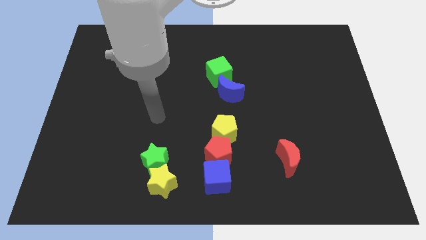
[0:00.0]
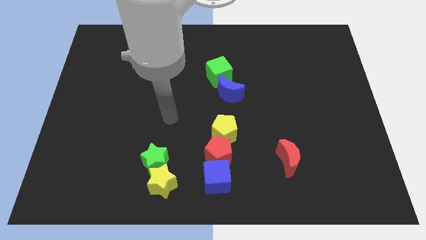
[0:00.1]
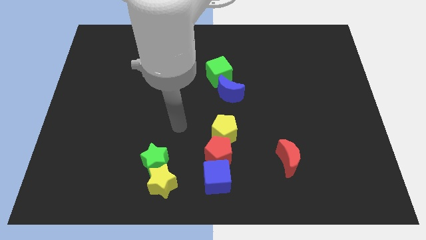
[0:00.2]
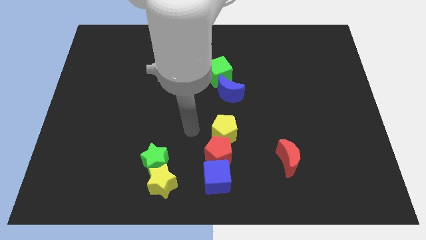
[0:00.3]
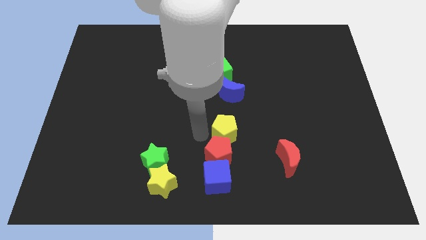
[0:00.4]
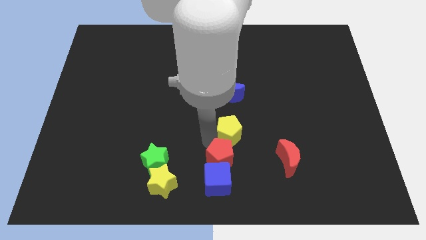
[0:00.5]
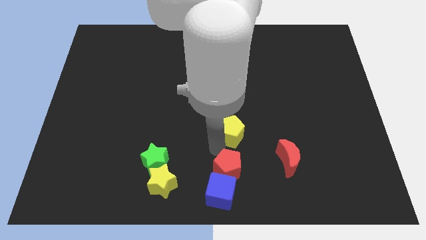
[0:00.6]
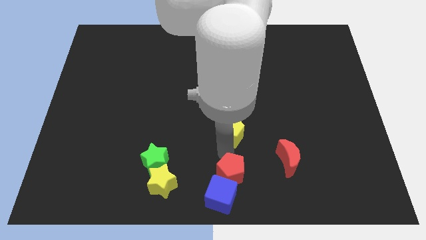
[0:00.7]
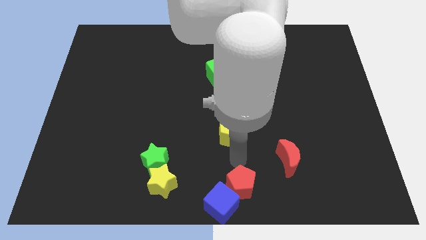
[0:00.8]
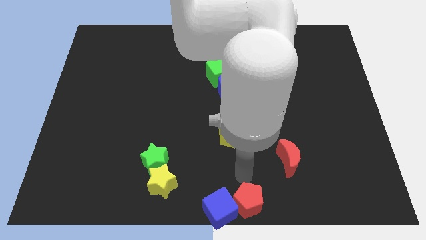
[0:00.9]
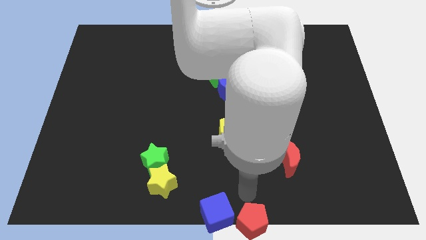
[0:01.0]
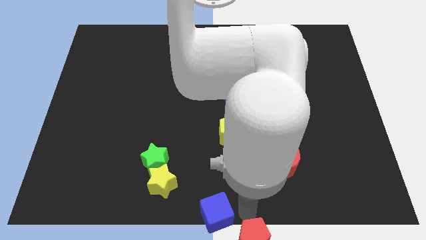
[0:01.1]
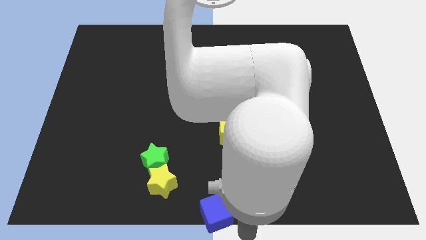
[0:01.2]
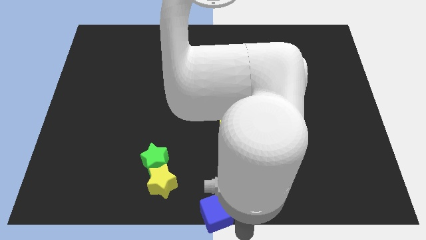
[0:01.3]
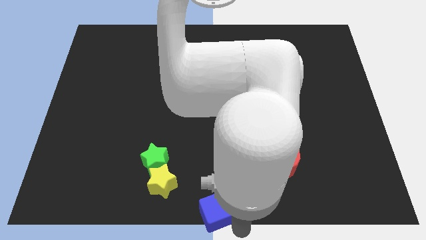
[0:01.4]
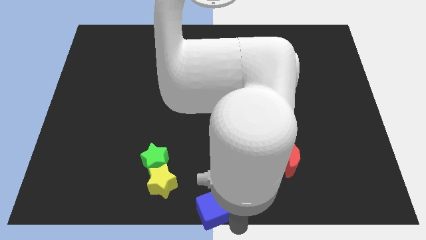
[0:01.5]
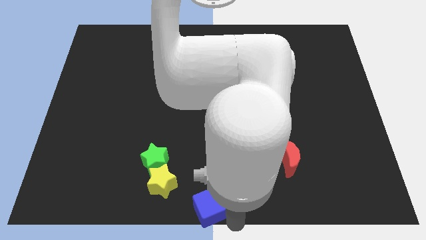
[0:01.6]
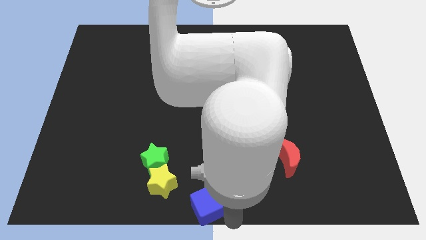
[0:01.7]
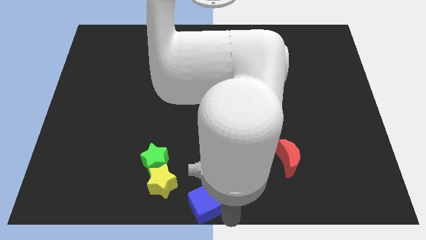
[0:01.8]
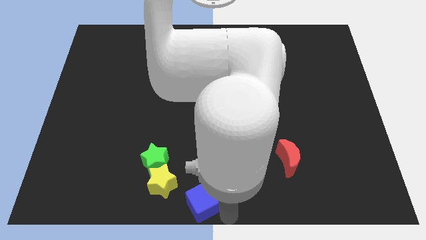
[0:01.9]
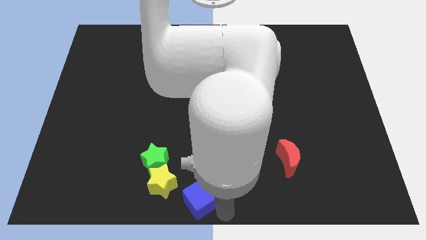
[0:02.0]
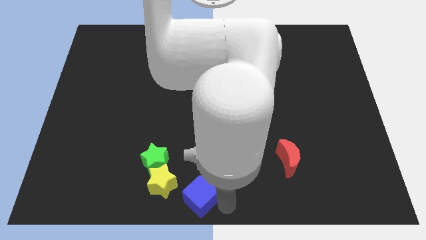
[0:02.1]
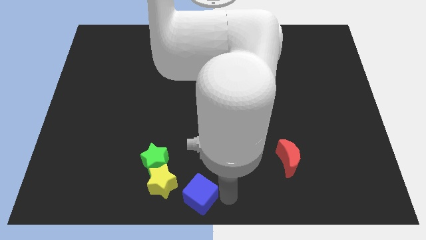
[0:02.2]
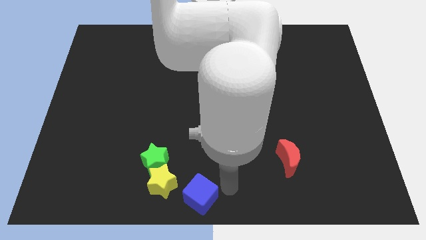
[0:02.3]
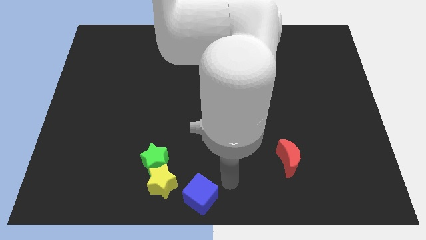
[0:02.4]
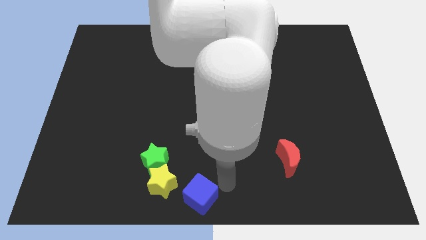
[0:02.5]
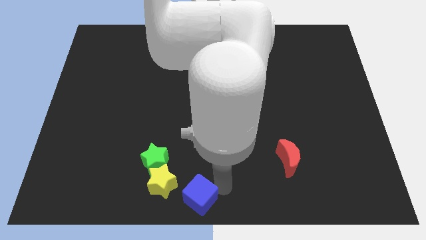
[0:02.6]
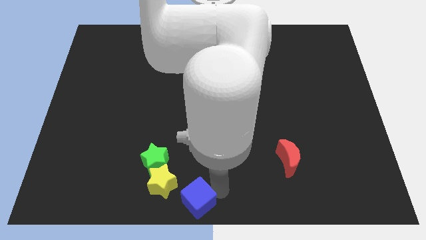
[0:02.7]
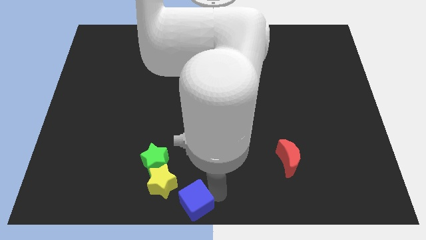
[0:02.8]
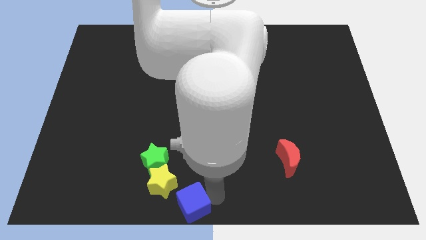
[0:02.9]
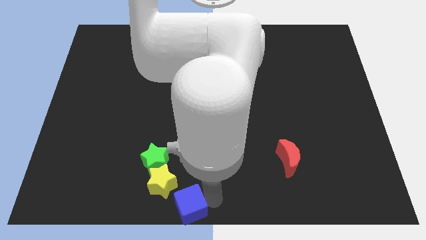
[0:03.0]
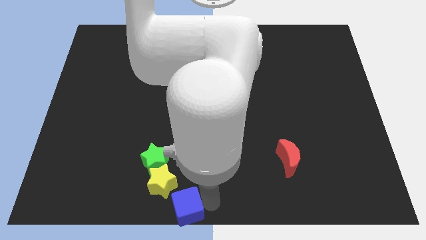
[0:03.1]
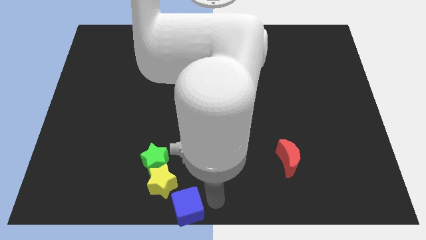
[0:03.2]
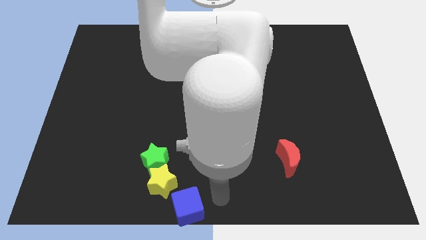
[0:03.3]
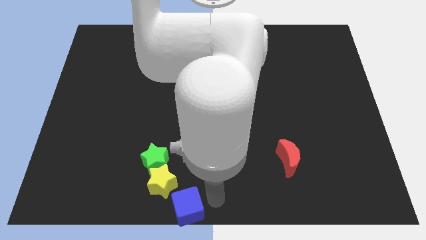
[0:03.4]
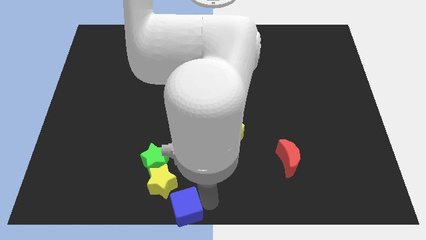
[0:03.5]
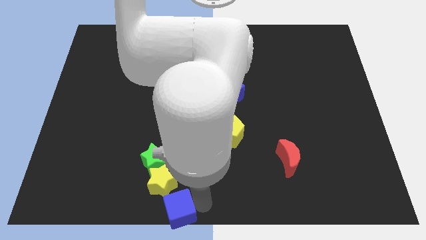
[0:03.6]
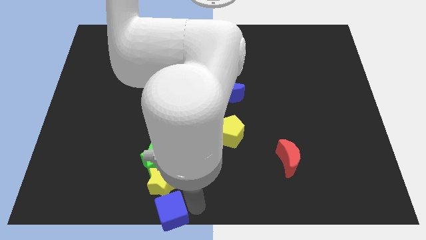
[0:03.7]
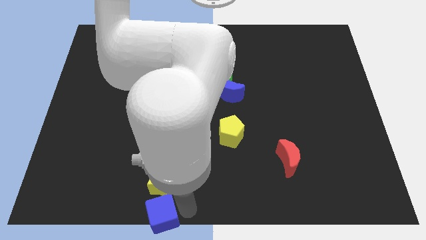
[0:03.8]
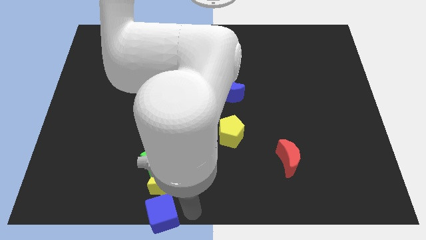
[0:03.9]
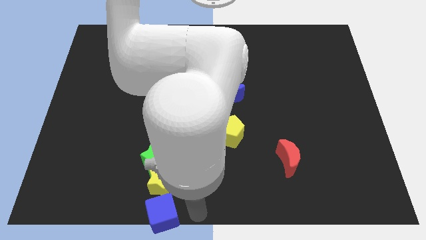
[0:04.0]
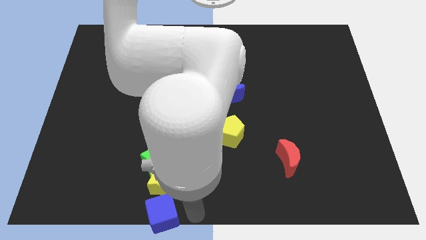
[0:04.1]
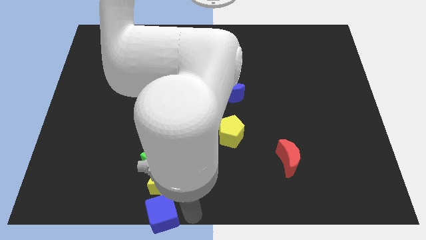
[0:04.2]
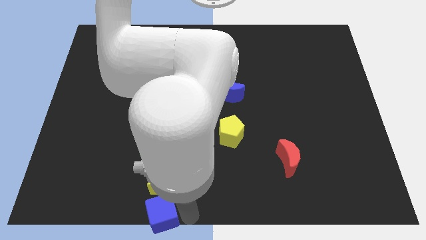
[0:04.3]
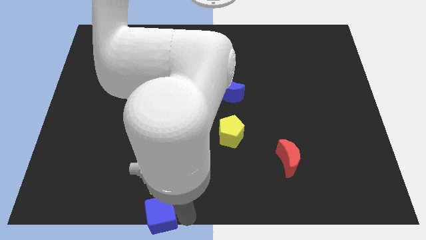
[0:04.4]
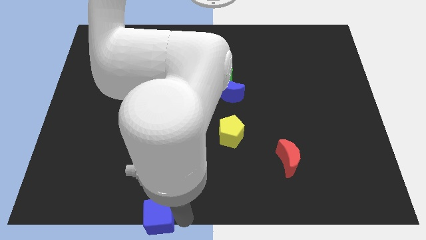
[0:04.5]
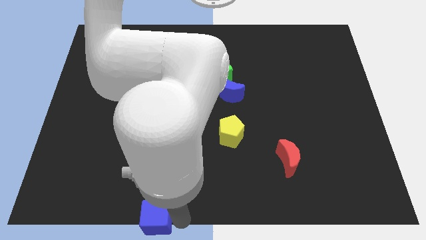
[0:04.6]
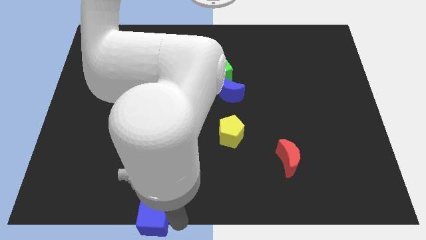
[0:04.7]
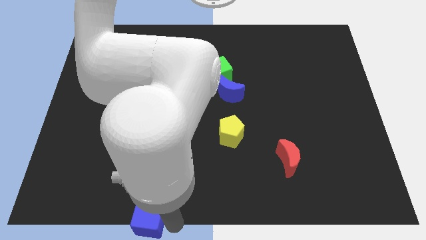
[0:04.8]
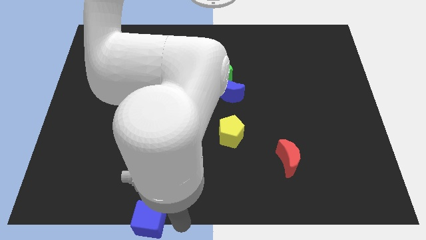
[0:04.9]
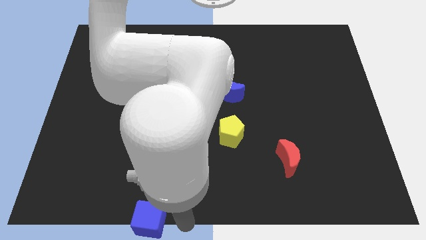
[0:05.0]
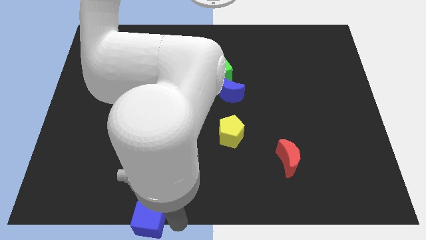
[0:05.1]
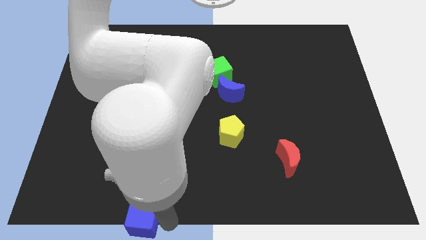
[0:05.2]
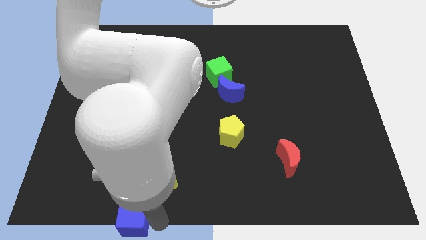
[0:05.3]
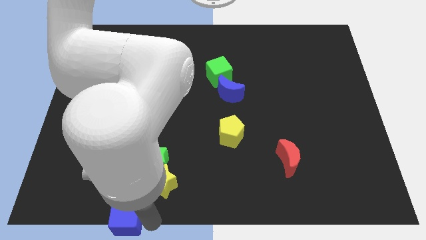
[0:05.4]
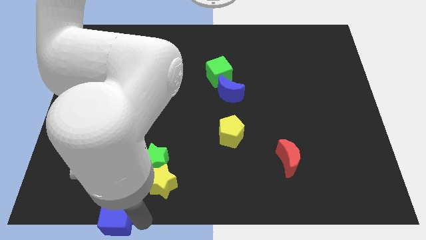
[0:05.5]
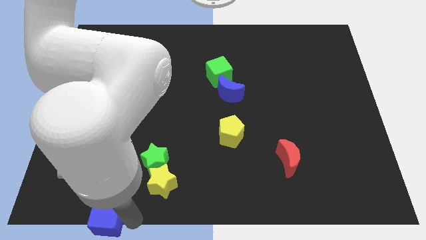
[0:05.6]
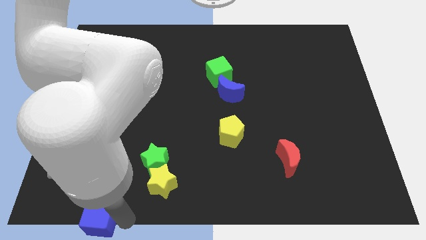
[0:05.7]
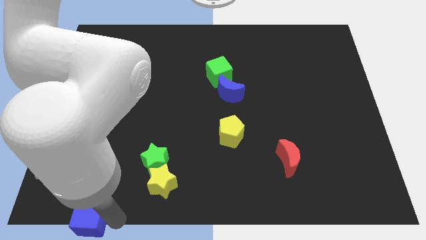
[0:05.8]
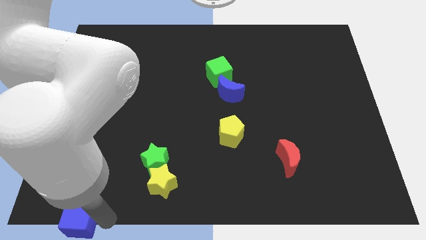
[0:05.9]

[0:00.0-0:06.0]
put the blue cube to the bottom left

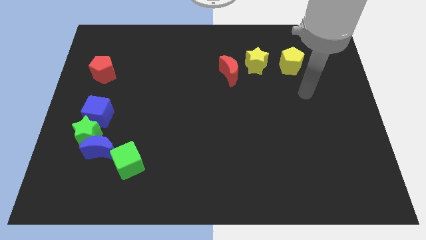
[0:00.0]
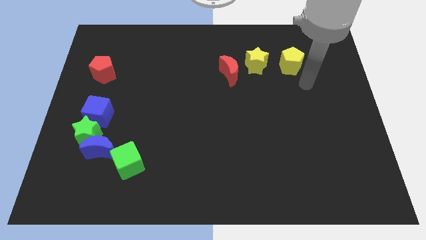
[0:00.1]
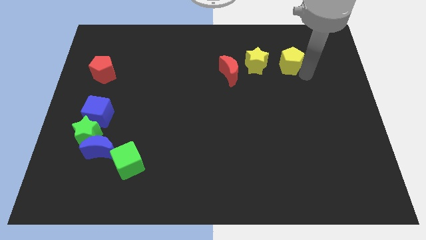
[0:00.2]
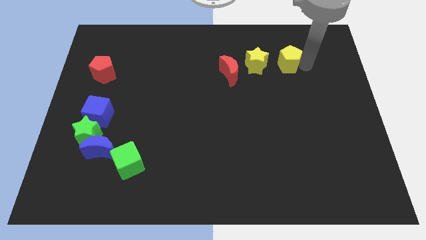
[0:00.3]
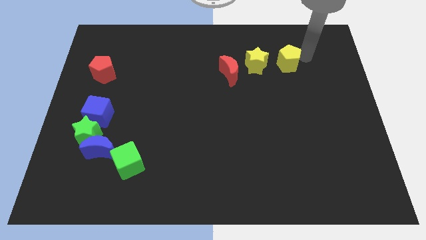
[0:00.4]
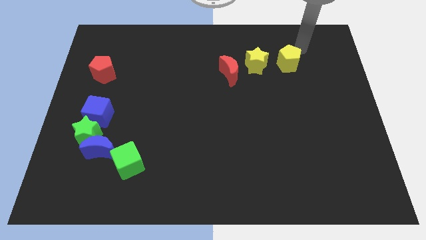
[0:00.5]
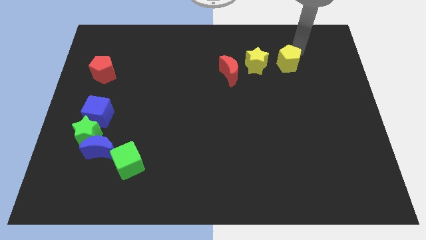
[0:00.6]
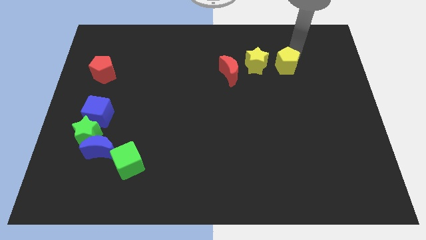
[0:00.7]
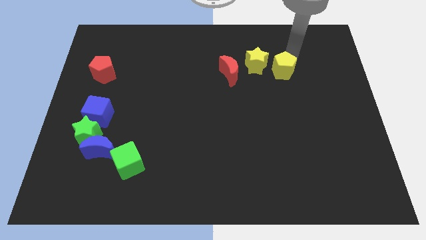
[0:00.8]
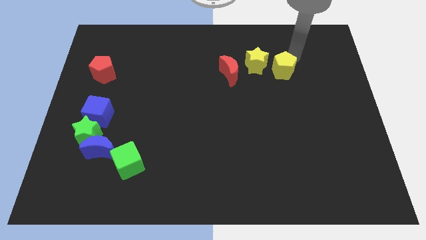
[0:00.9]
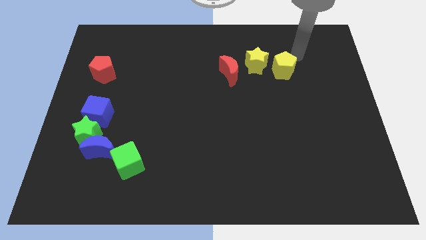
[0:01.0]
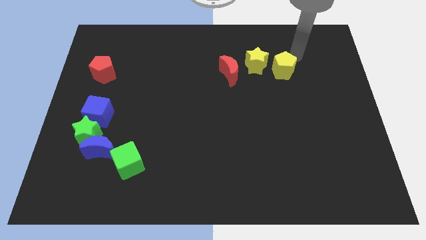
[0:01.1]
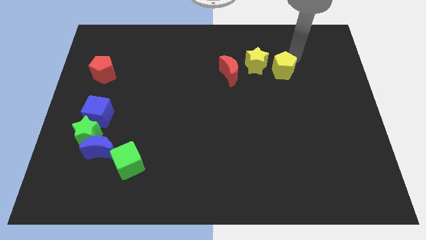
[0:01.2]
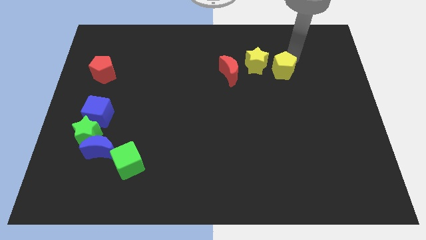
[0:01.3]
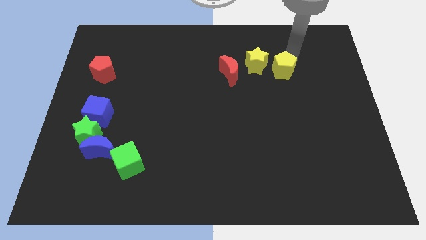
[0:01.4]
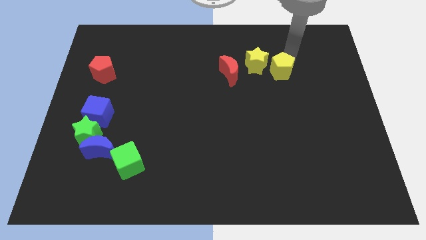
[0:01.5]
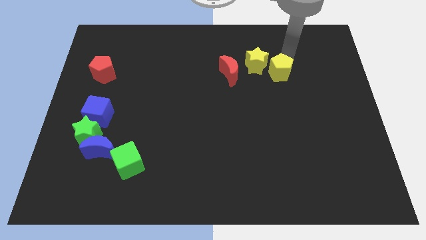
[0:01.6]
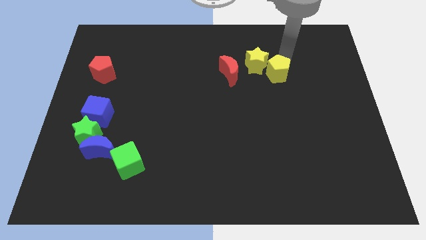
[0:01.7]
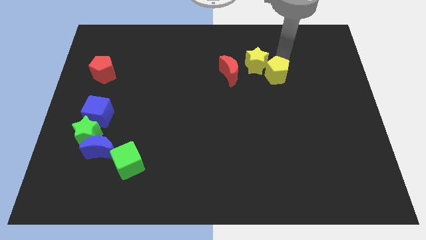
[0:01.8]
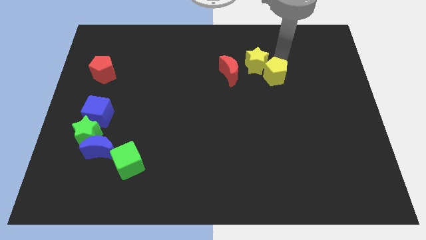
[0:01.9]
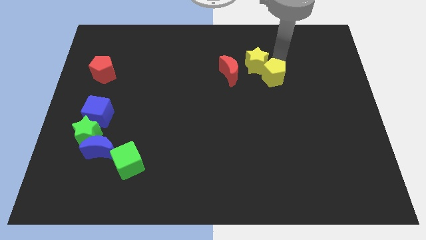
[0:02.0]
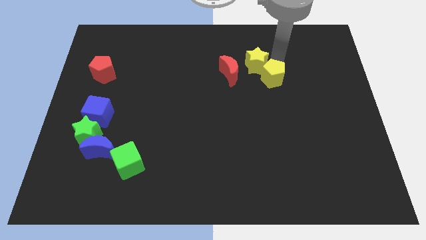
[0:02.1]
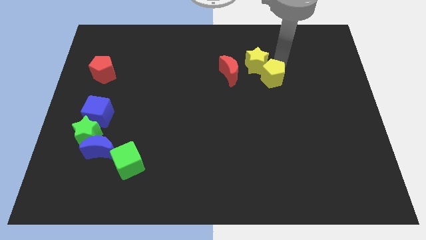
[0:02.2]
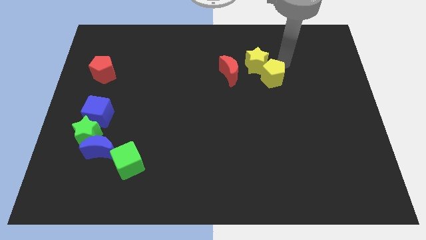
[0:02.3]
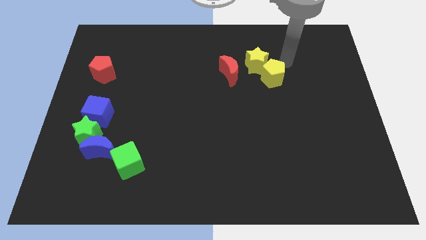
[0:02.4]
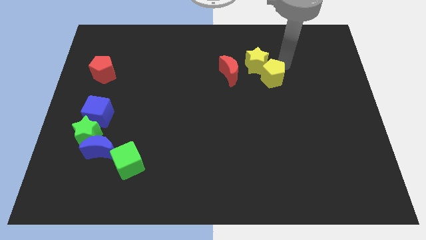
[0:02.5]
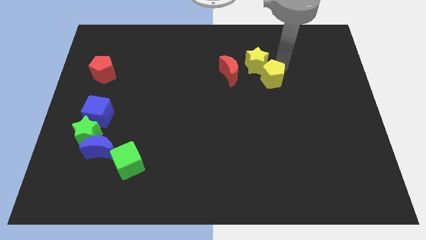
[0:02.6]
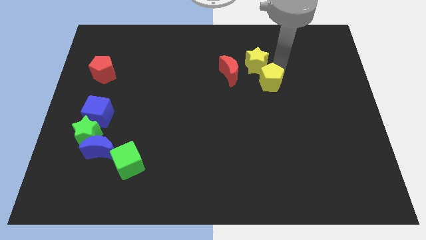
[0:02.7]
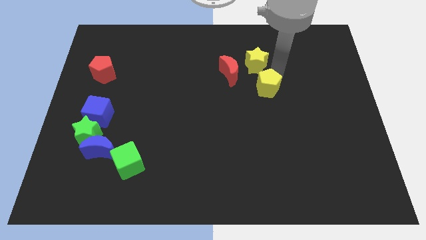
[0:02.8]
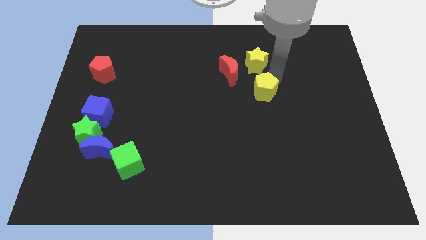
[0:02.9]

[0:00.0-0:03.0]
move the yellow pentagon to the middle
